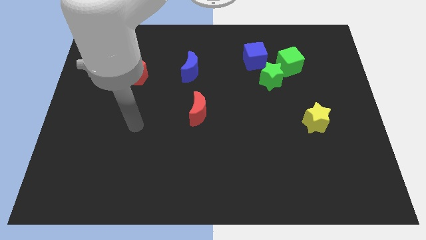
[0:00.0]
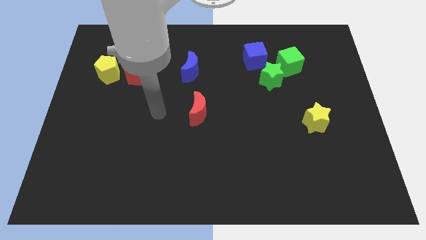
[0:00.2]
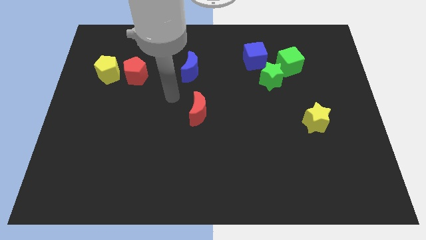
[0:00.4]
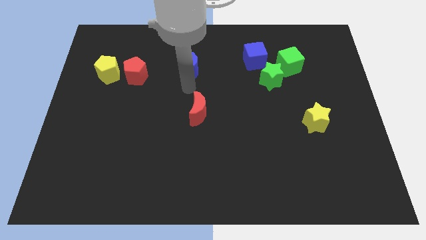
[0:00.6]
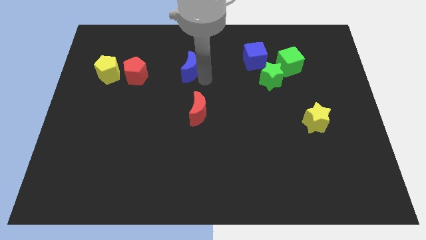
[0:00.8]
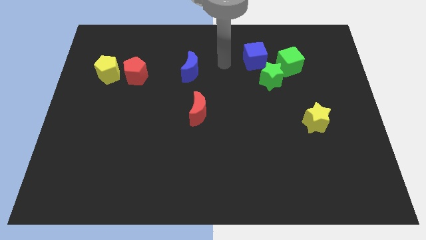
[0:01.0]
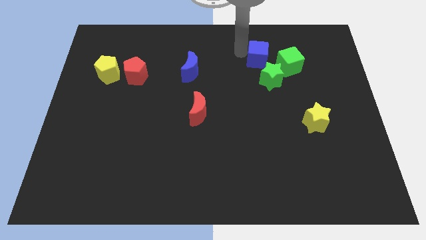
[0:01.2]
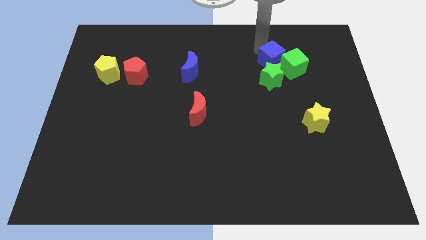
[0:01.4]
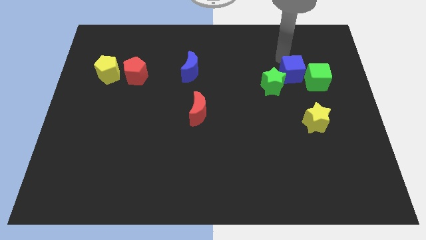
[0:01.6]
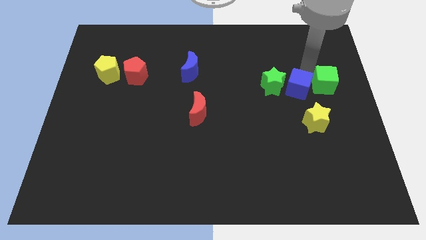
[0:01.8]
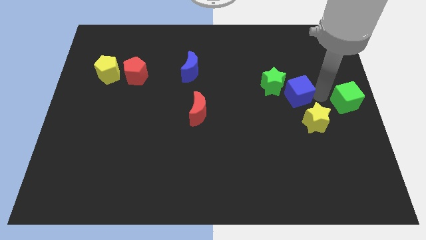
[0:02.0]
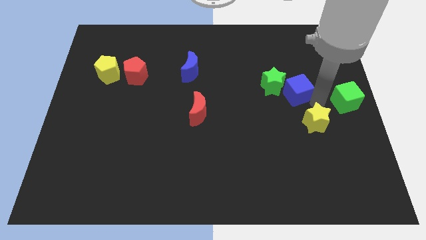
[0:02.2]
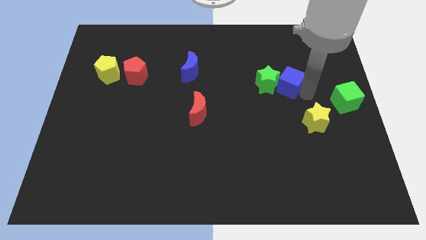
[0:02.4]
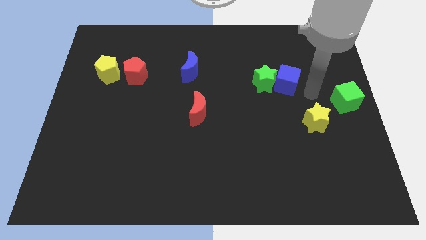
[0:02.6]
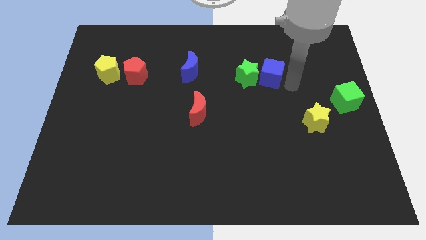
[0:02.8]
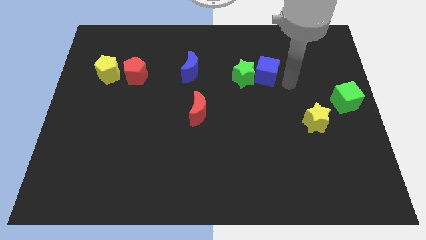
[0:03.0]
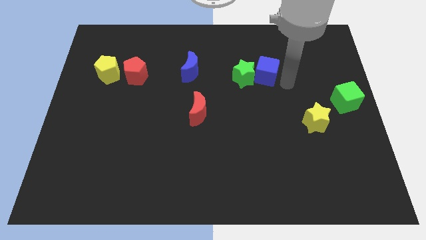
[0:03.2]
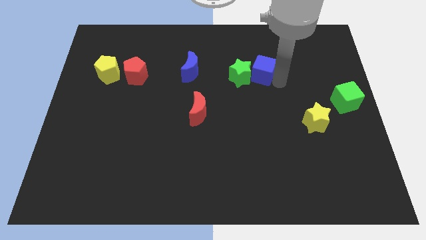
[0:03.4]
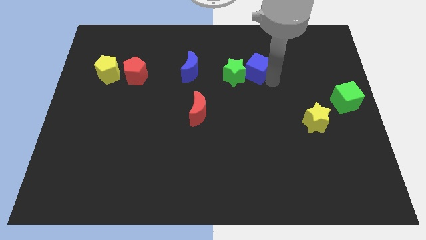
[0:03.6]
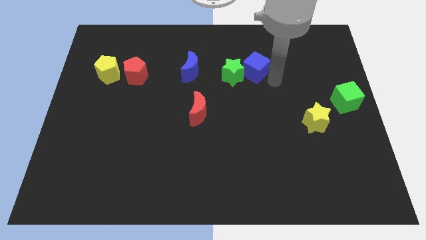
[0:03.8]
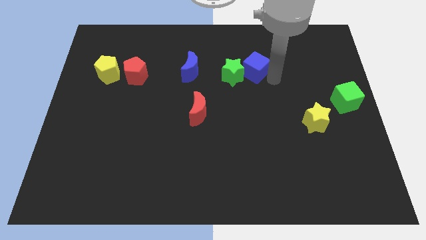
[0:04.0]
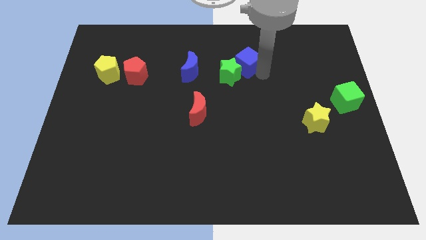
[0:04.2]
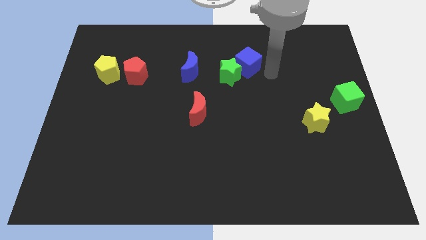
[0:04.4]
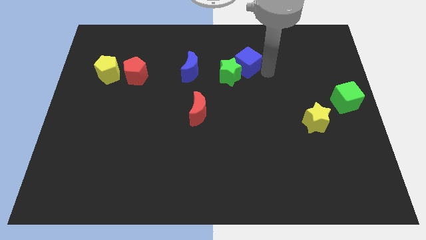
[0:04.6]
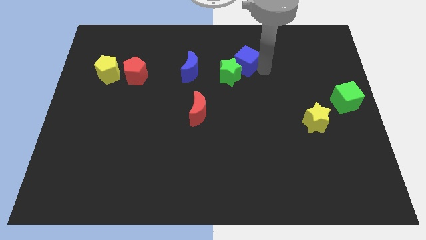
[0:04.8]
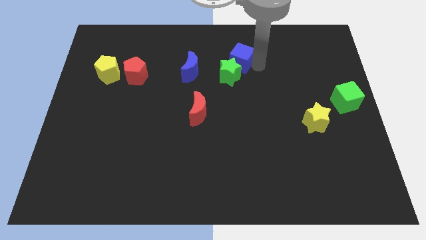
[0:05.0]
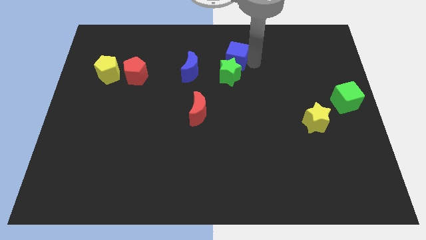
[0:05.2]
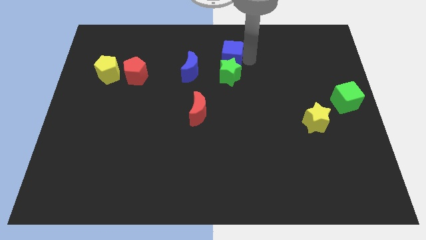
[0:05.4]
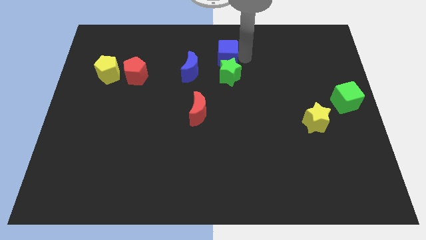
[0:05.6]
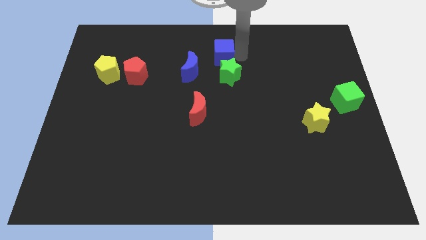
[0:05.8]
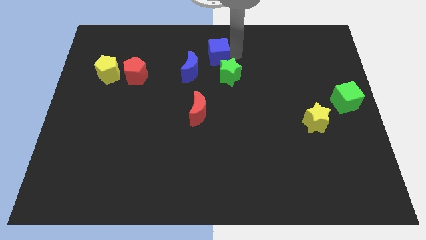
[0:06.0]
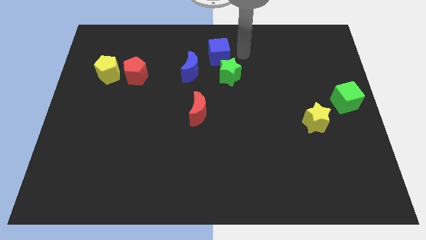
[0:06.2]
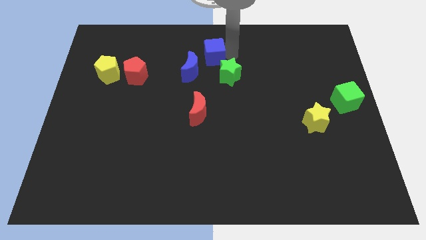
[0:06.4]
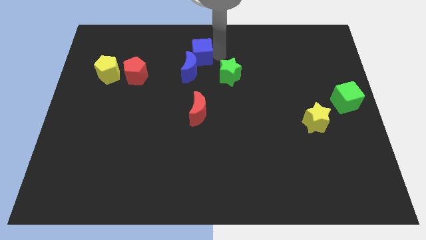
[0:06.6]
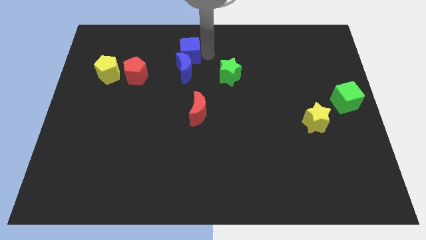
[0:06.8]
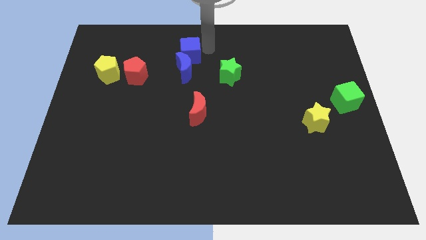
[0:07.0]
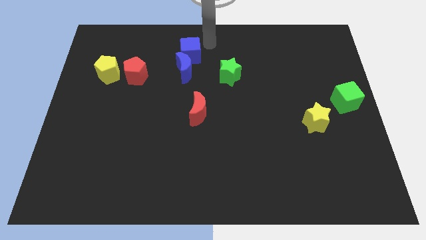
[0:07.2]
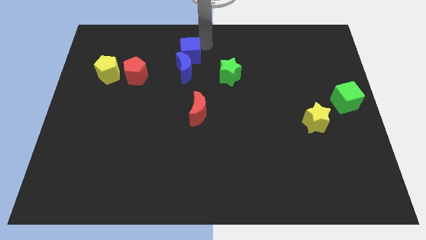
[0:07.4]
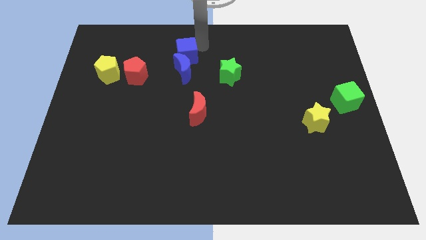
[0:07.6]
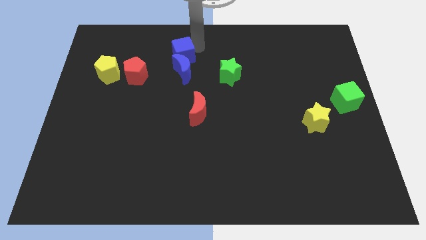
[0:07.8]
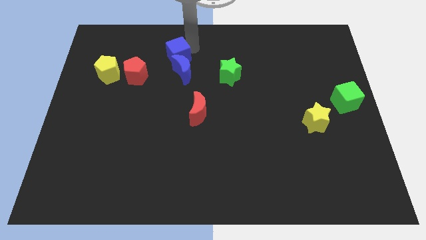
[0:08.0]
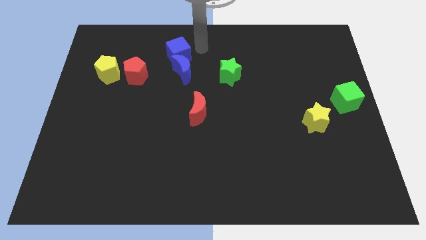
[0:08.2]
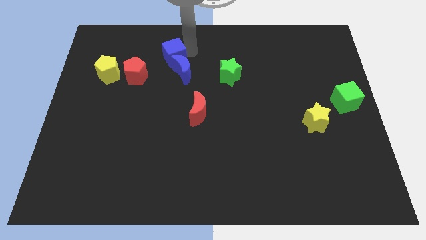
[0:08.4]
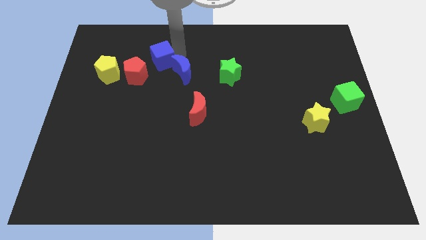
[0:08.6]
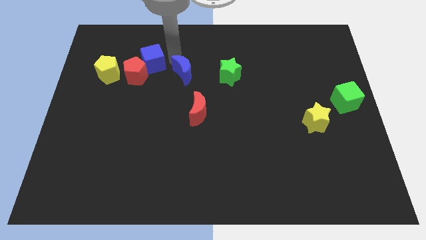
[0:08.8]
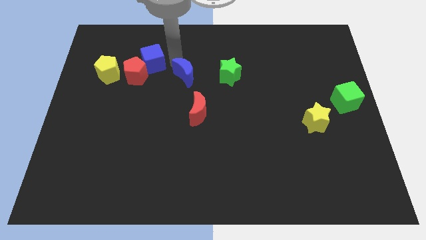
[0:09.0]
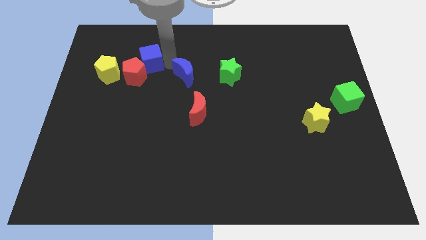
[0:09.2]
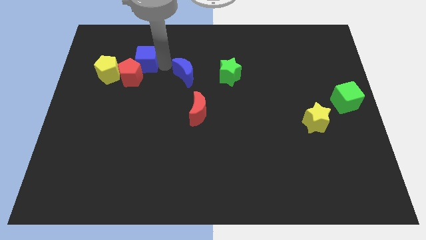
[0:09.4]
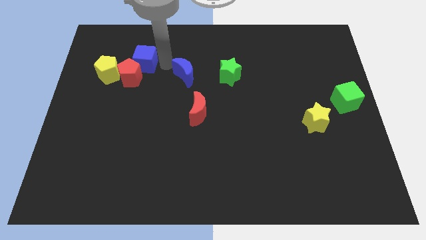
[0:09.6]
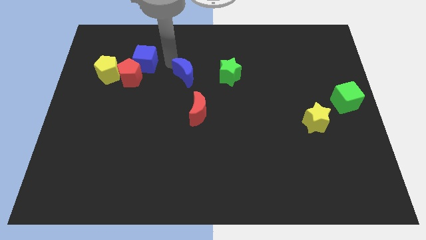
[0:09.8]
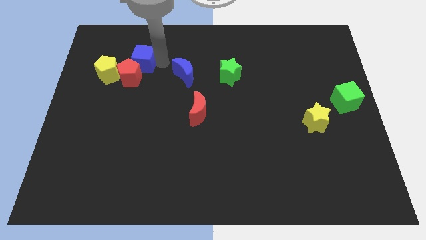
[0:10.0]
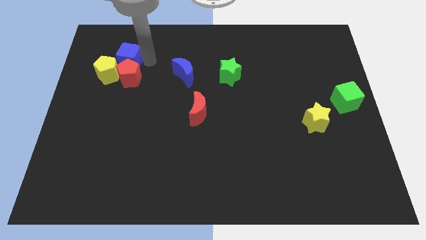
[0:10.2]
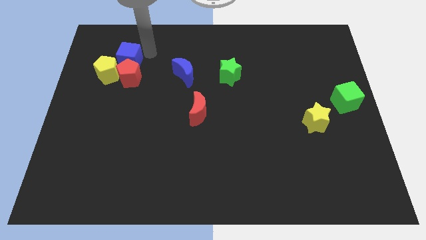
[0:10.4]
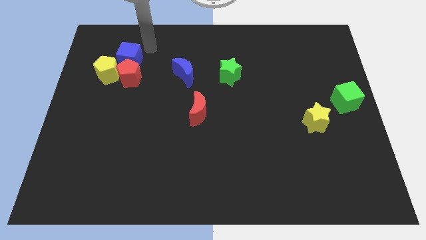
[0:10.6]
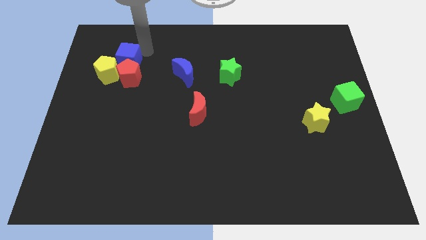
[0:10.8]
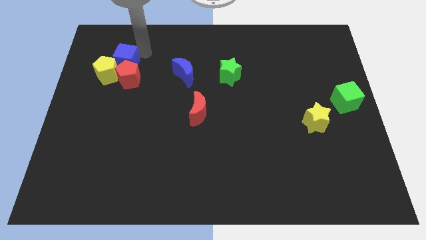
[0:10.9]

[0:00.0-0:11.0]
slide the blue cube next to the yellow pentagon

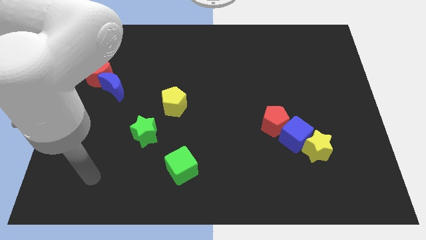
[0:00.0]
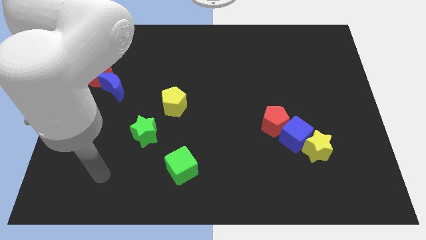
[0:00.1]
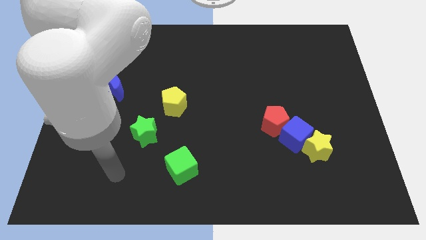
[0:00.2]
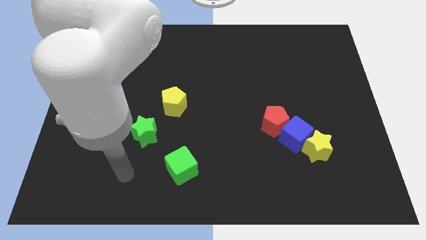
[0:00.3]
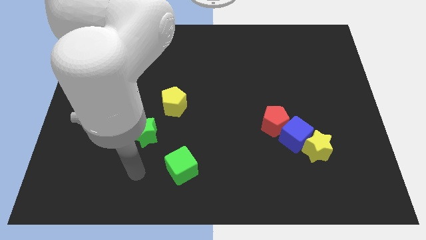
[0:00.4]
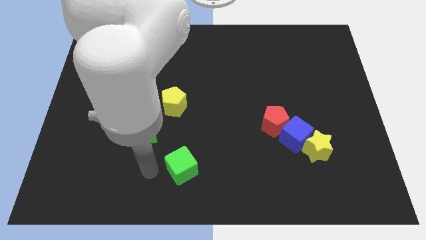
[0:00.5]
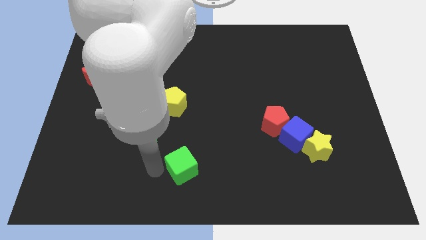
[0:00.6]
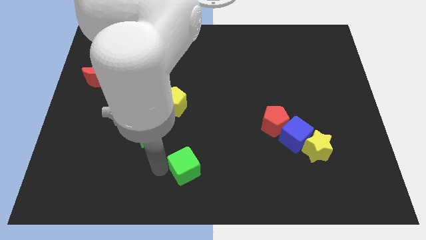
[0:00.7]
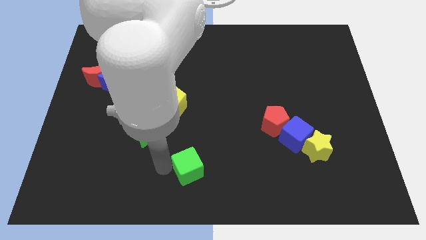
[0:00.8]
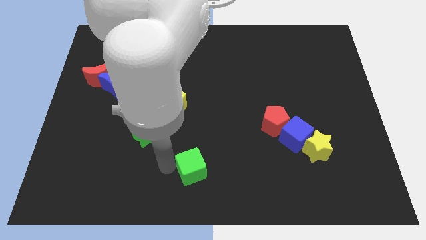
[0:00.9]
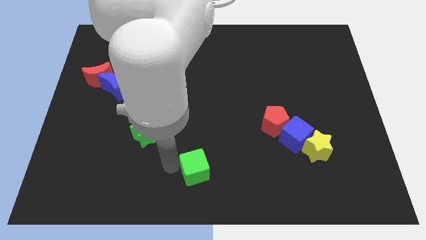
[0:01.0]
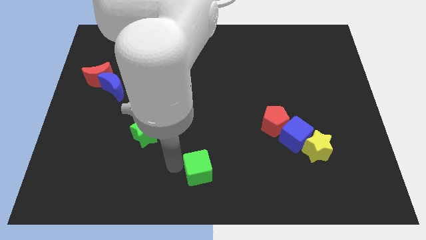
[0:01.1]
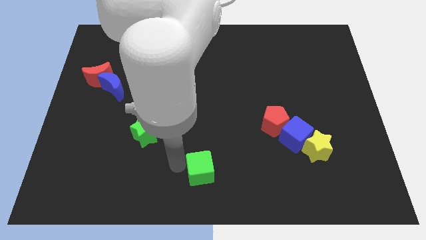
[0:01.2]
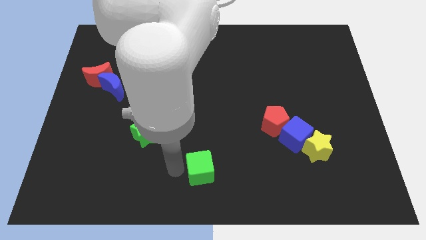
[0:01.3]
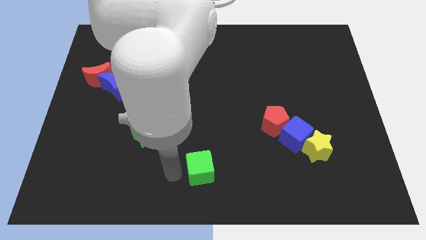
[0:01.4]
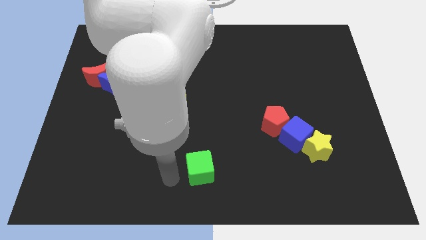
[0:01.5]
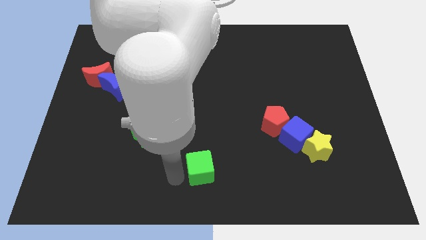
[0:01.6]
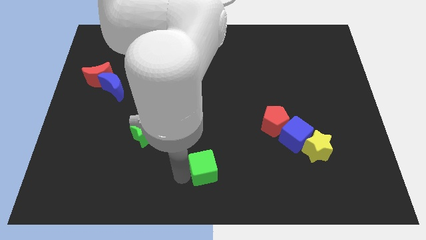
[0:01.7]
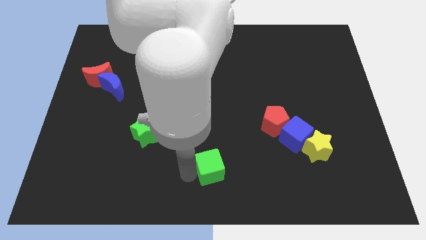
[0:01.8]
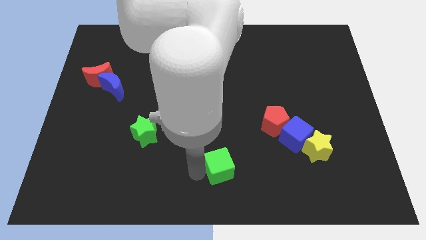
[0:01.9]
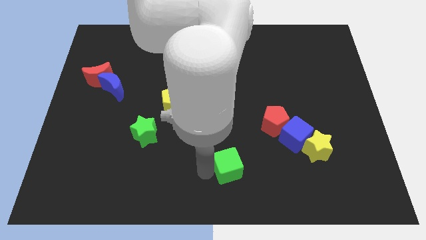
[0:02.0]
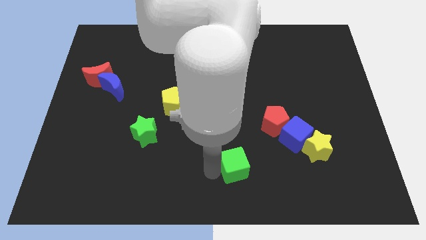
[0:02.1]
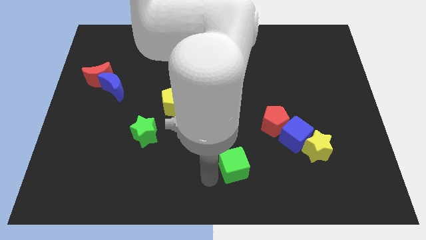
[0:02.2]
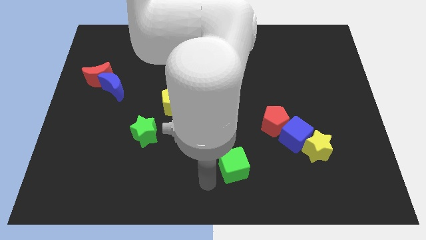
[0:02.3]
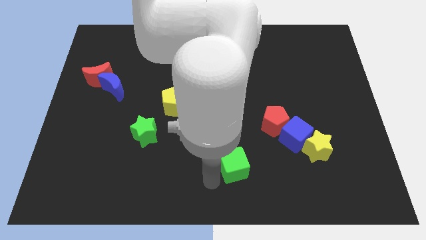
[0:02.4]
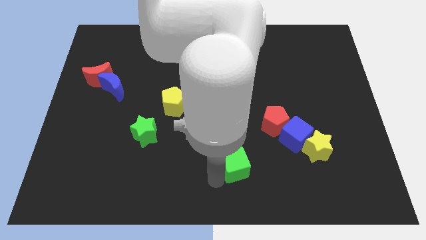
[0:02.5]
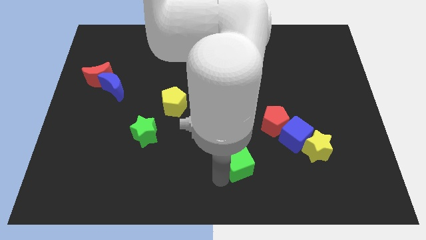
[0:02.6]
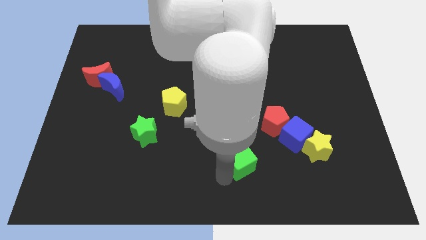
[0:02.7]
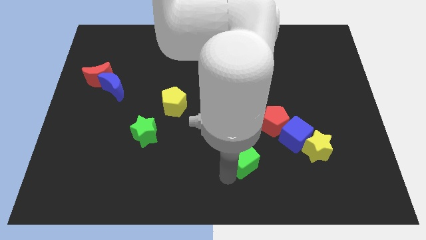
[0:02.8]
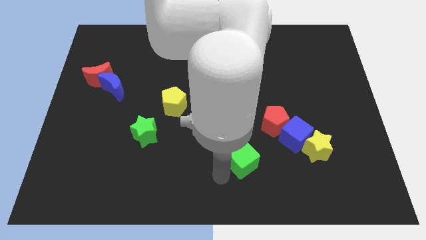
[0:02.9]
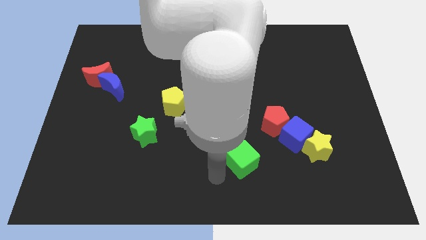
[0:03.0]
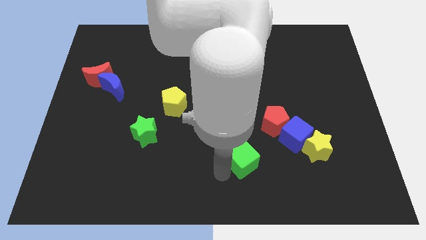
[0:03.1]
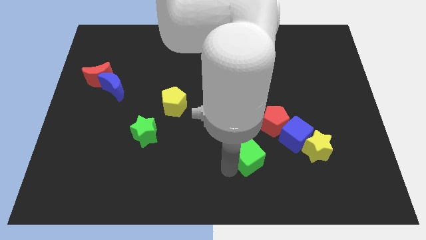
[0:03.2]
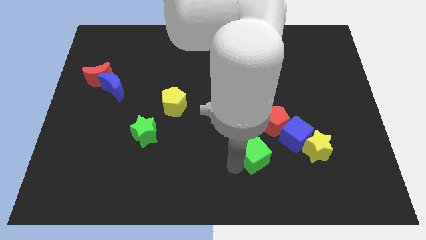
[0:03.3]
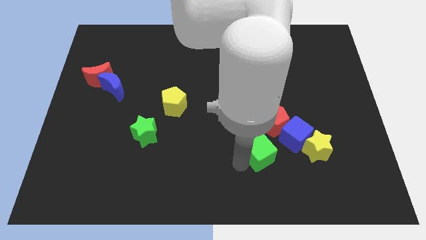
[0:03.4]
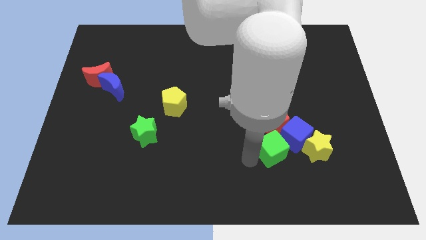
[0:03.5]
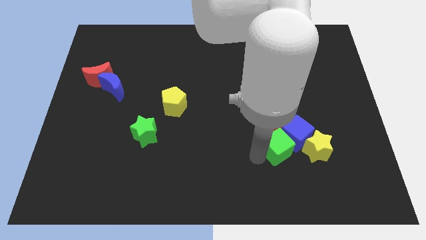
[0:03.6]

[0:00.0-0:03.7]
push the green cube to the blue cube
